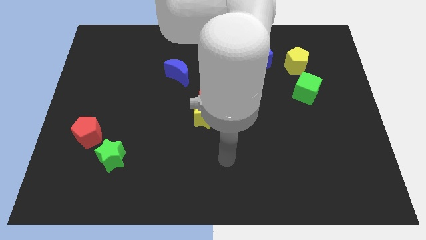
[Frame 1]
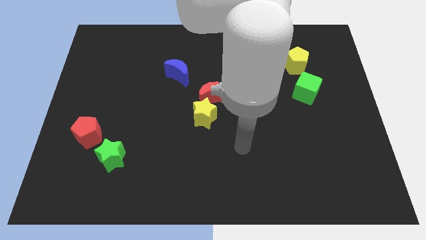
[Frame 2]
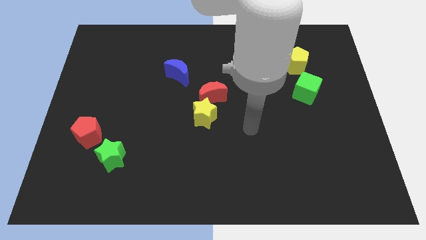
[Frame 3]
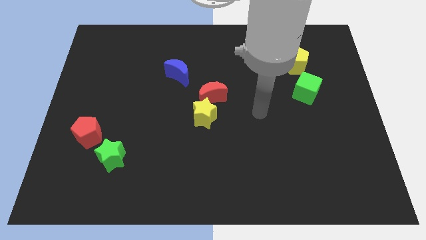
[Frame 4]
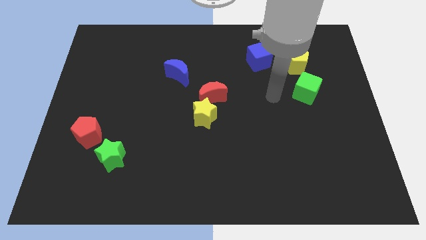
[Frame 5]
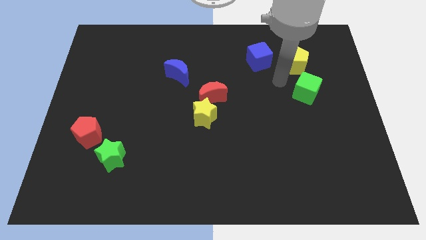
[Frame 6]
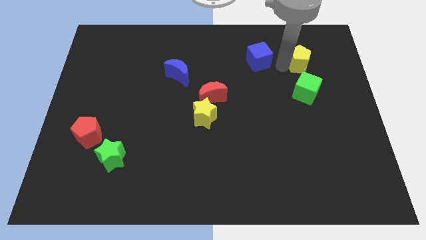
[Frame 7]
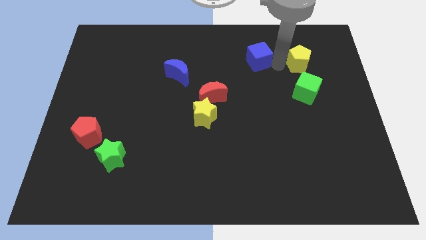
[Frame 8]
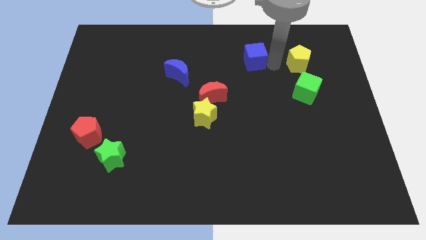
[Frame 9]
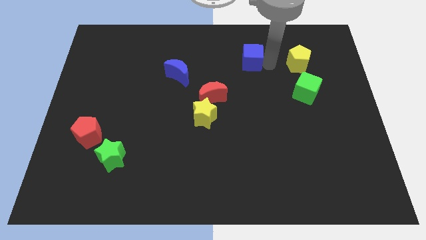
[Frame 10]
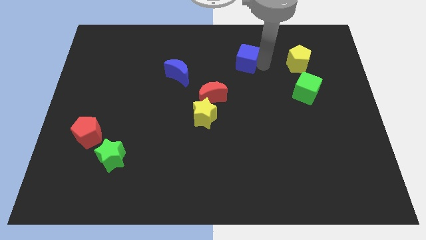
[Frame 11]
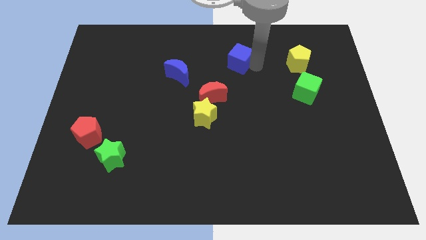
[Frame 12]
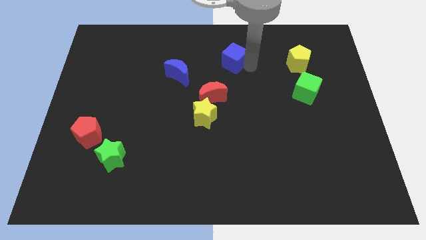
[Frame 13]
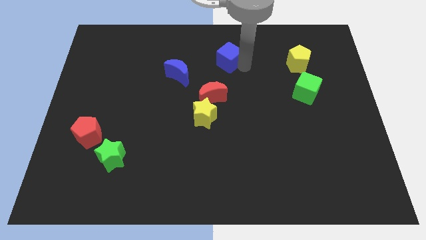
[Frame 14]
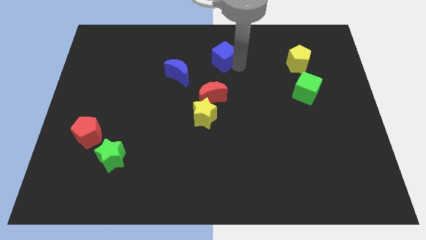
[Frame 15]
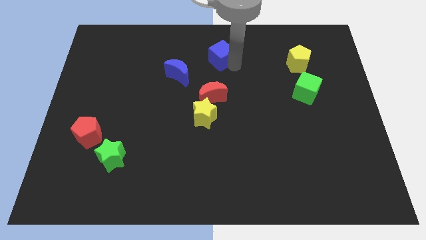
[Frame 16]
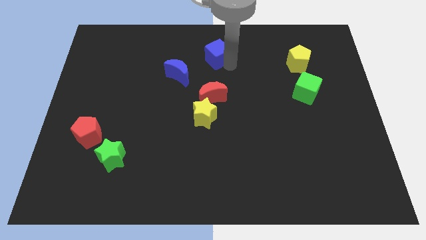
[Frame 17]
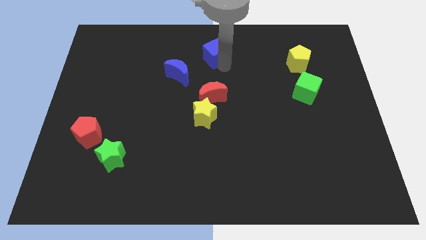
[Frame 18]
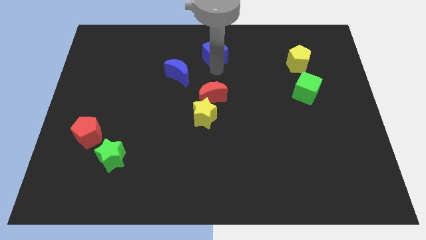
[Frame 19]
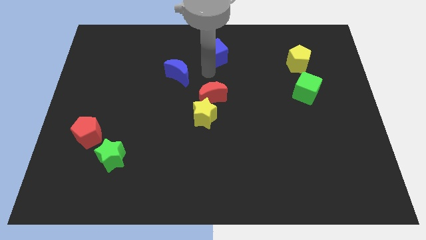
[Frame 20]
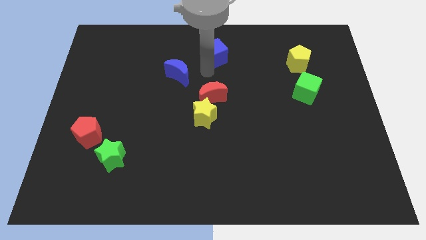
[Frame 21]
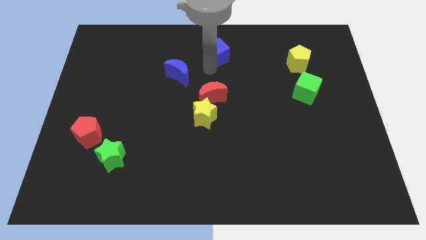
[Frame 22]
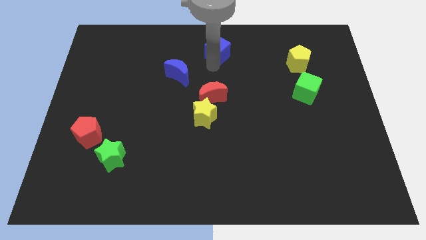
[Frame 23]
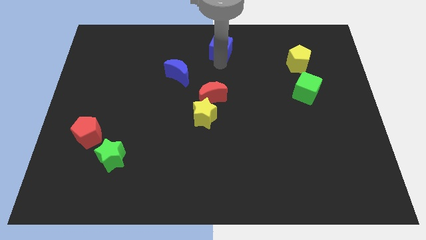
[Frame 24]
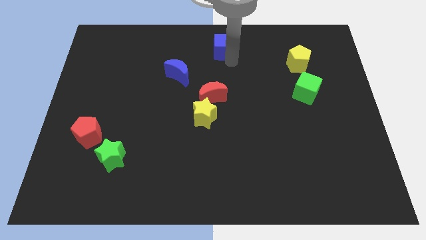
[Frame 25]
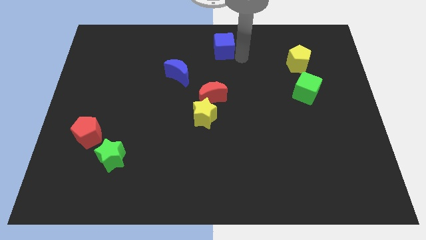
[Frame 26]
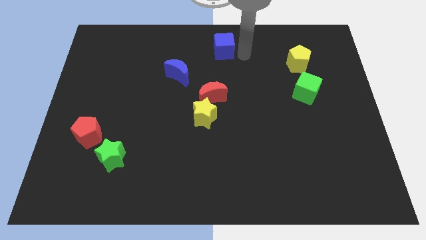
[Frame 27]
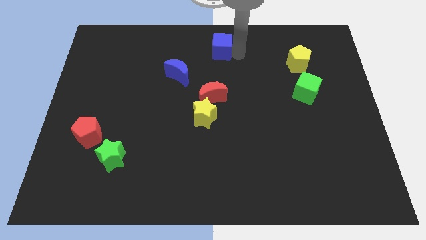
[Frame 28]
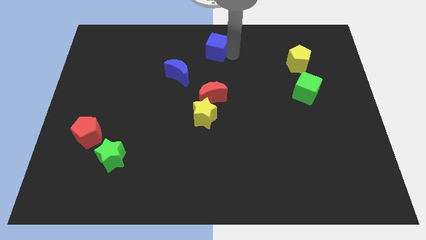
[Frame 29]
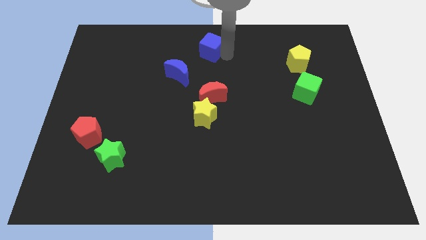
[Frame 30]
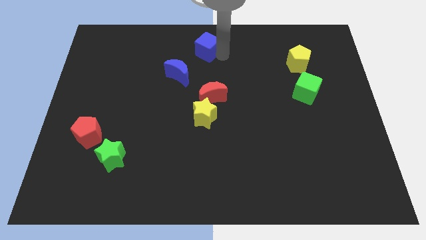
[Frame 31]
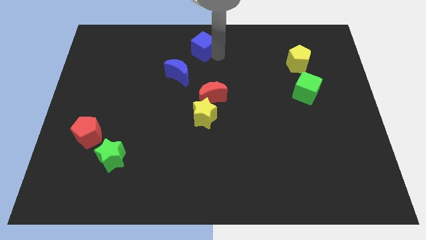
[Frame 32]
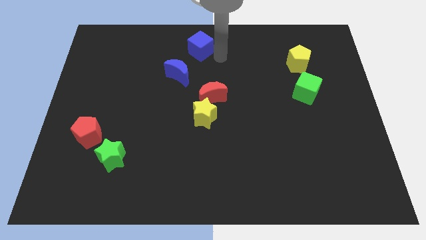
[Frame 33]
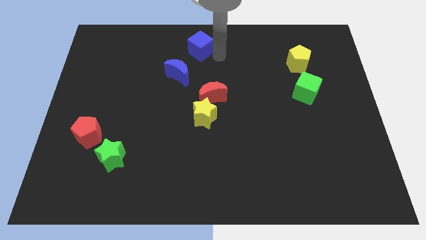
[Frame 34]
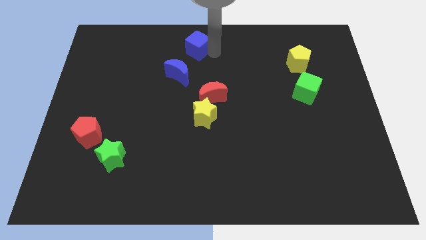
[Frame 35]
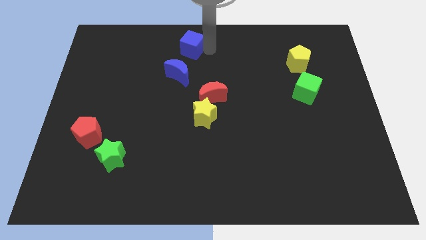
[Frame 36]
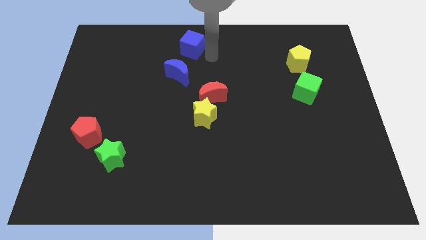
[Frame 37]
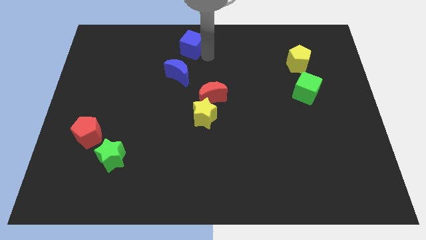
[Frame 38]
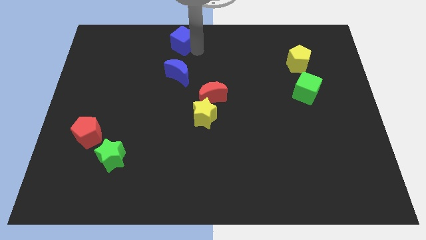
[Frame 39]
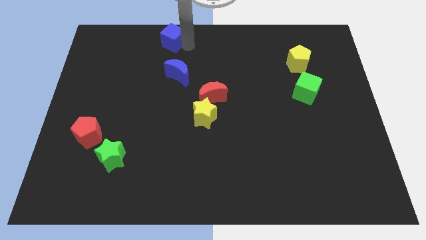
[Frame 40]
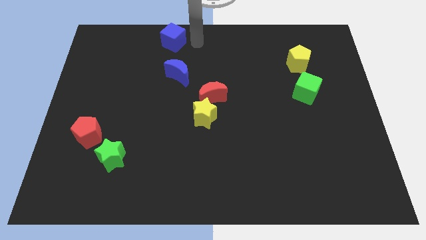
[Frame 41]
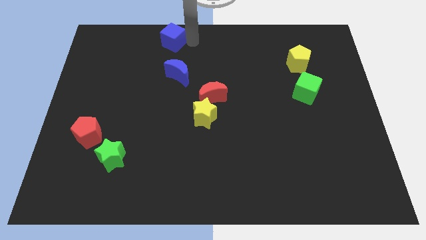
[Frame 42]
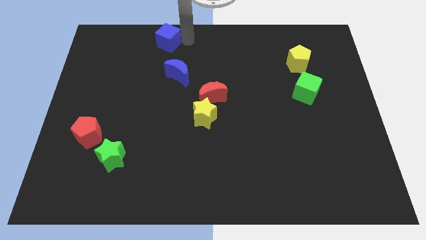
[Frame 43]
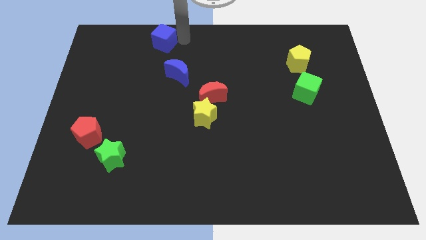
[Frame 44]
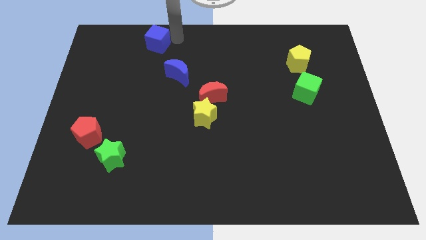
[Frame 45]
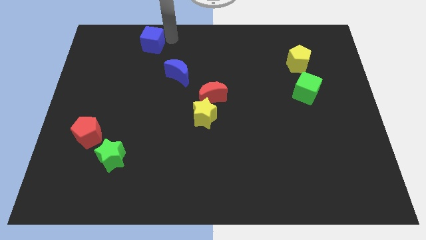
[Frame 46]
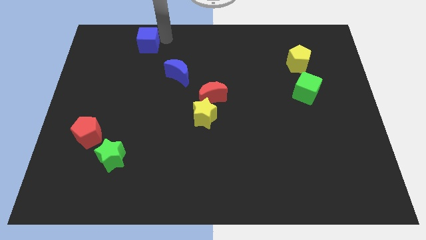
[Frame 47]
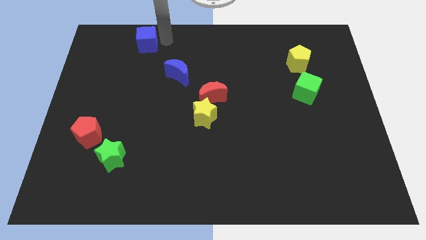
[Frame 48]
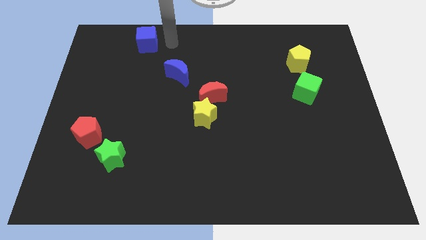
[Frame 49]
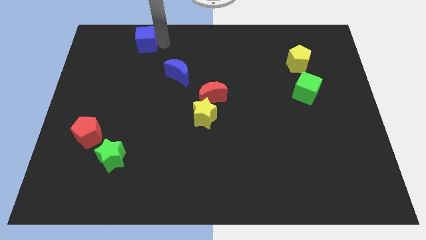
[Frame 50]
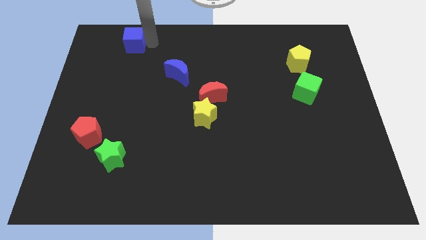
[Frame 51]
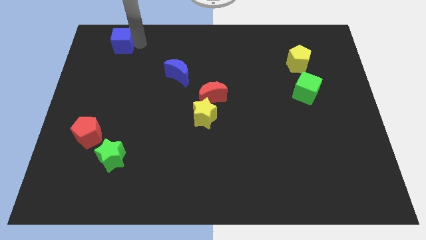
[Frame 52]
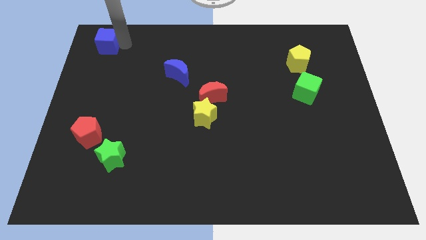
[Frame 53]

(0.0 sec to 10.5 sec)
push the blue cube to the top left

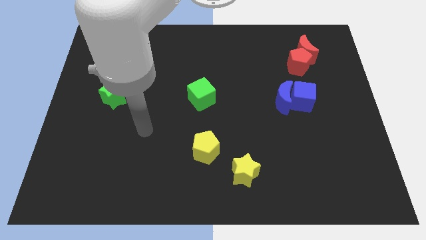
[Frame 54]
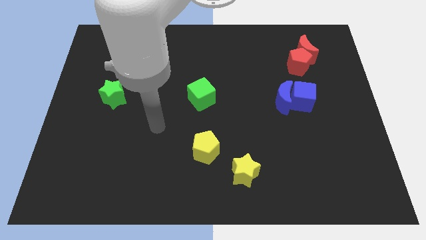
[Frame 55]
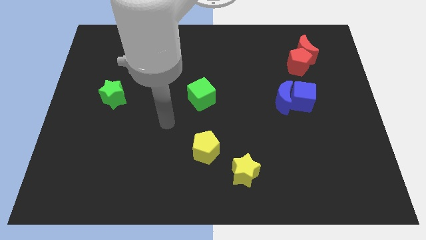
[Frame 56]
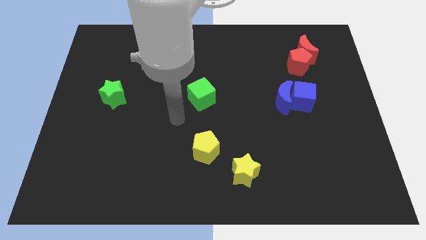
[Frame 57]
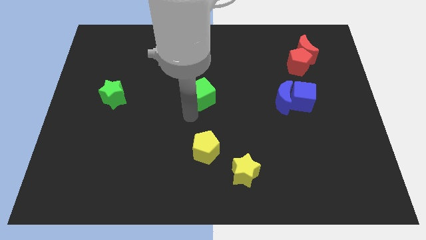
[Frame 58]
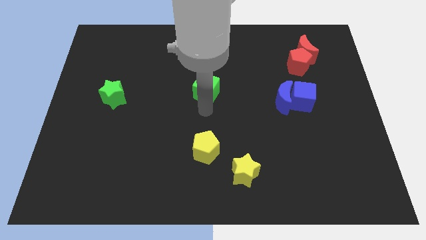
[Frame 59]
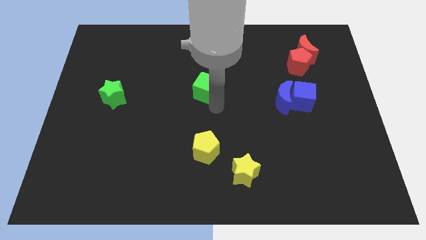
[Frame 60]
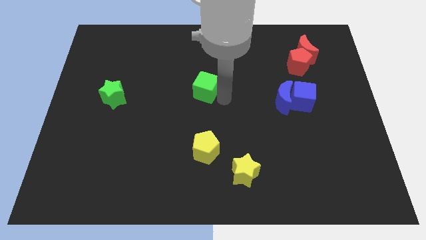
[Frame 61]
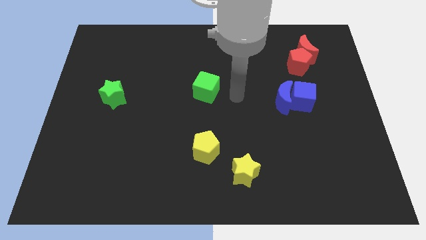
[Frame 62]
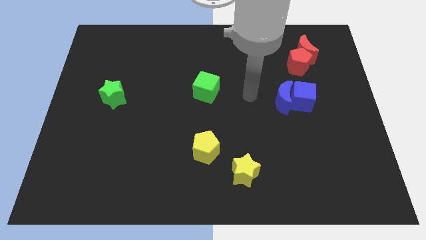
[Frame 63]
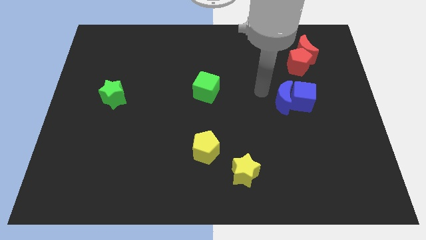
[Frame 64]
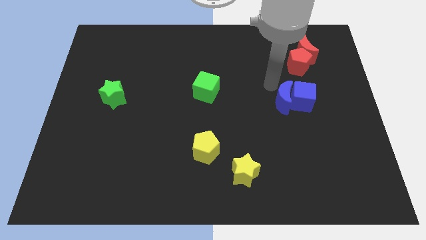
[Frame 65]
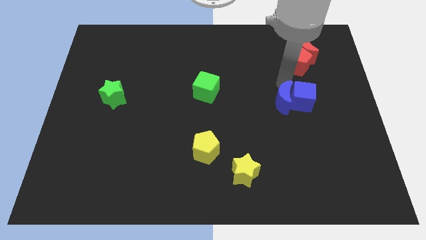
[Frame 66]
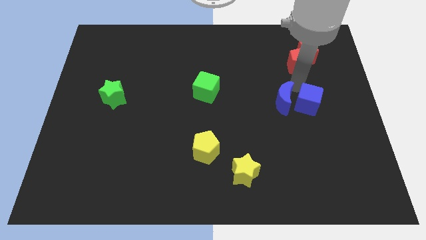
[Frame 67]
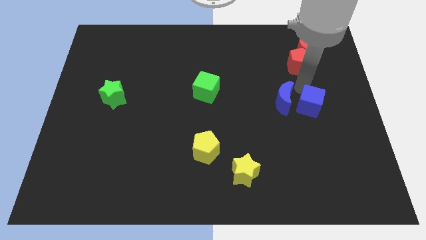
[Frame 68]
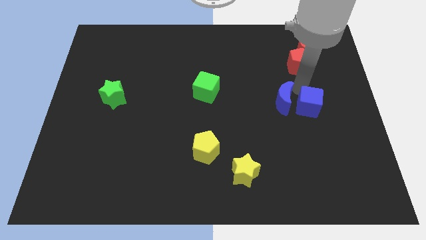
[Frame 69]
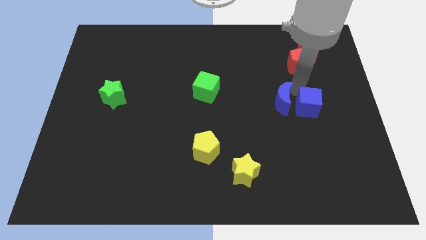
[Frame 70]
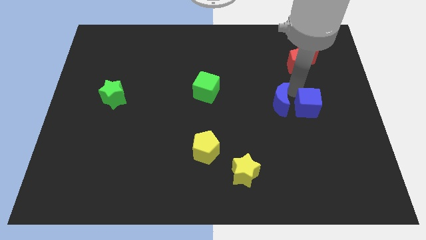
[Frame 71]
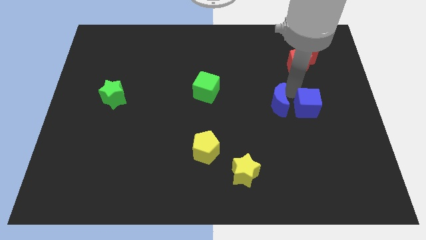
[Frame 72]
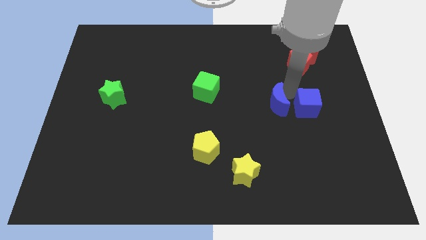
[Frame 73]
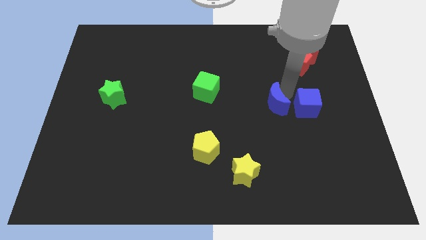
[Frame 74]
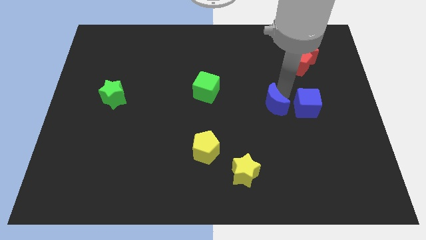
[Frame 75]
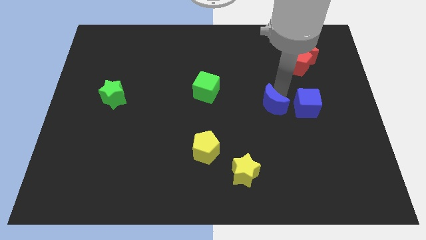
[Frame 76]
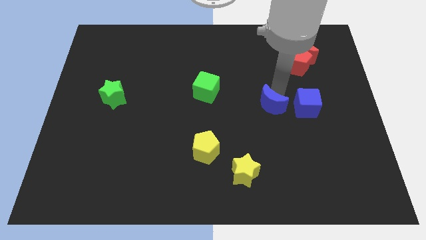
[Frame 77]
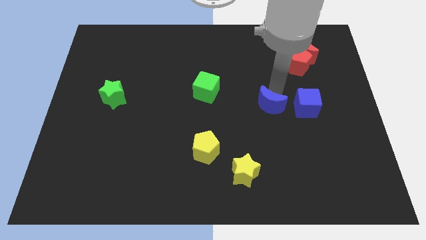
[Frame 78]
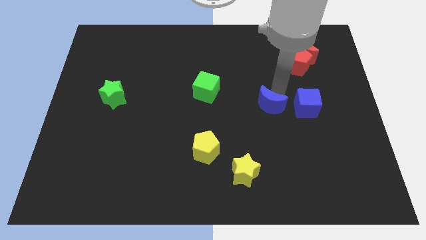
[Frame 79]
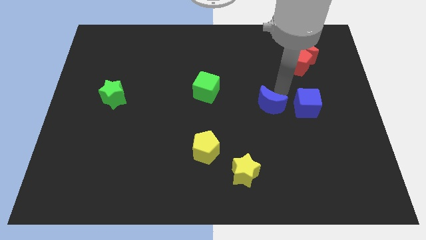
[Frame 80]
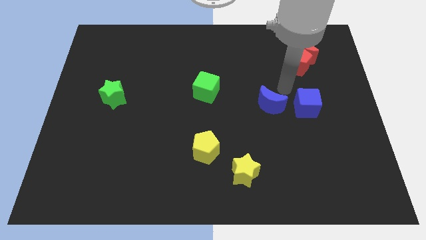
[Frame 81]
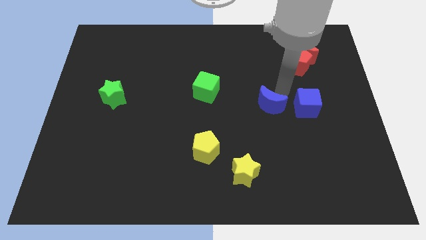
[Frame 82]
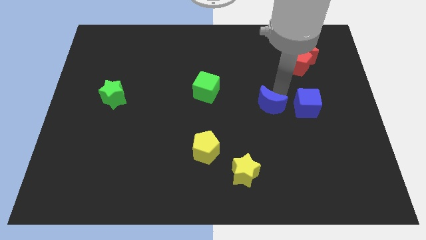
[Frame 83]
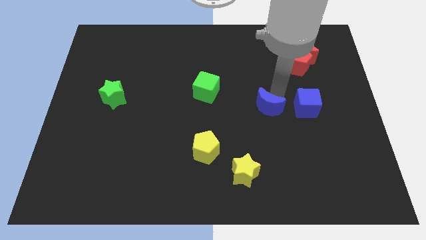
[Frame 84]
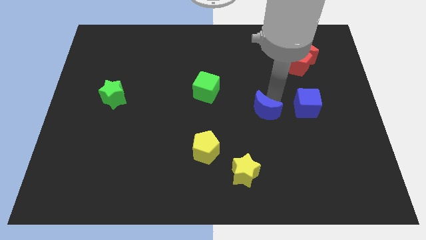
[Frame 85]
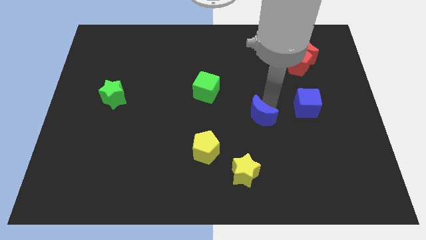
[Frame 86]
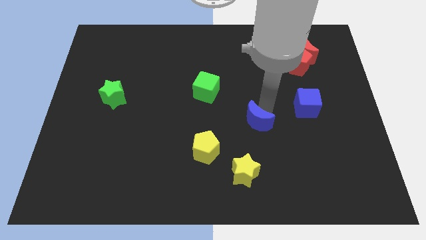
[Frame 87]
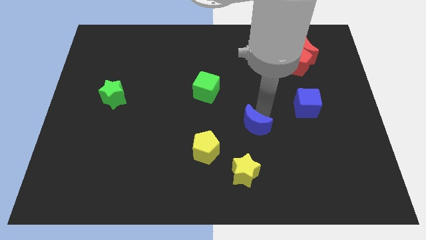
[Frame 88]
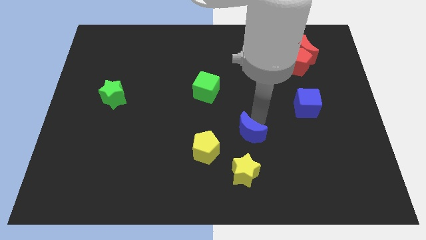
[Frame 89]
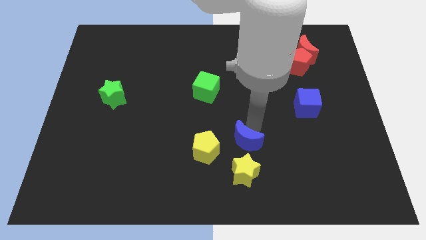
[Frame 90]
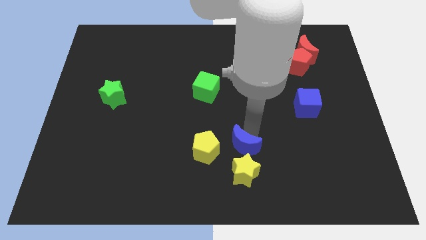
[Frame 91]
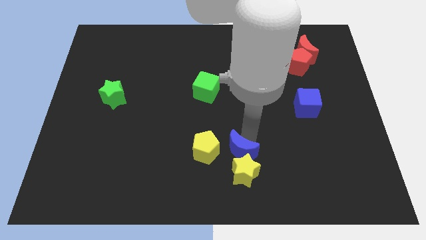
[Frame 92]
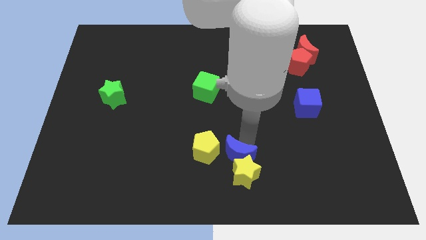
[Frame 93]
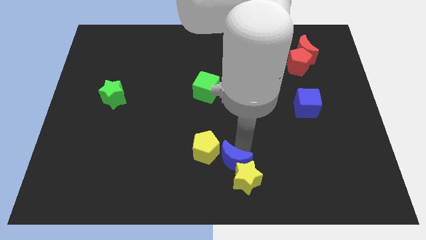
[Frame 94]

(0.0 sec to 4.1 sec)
slide the blue moon to the bottom
